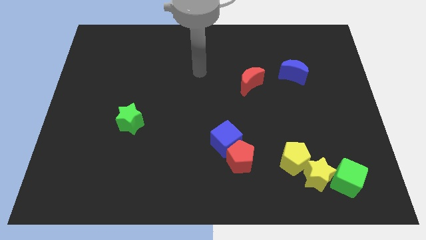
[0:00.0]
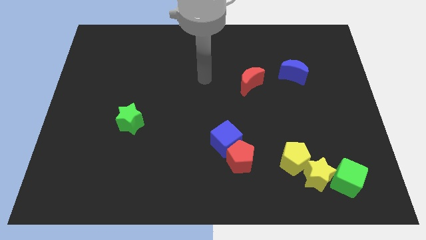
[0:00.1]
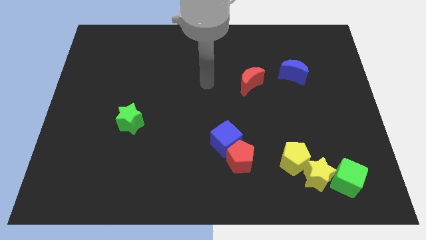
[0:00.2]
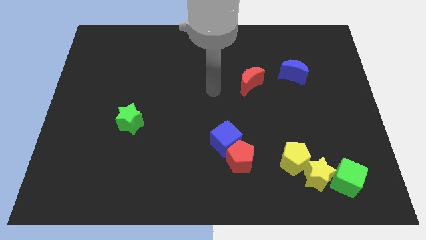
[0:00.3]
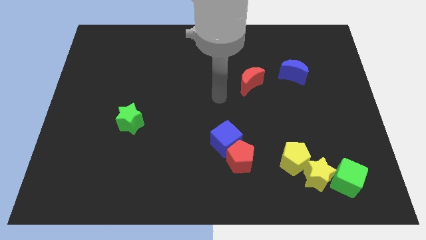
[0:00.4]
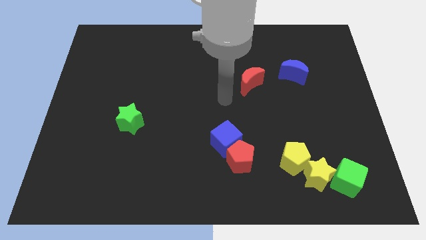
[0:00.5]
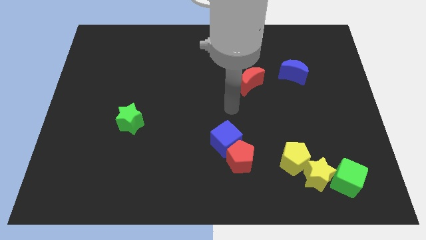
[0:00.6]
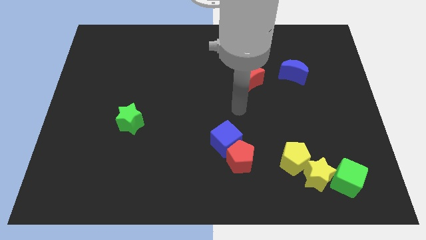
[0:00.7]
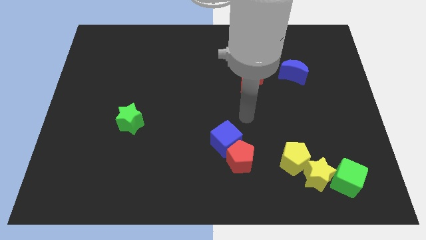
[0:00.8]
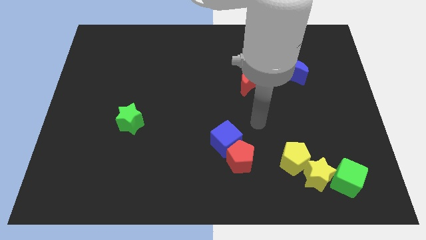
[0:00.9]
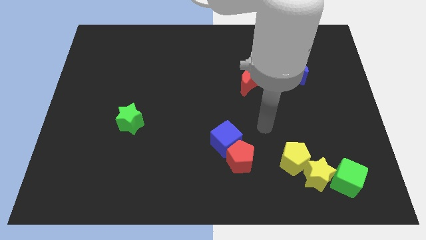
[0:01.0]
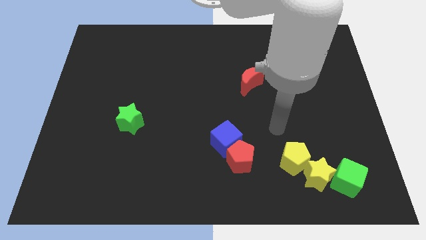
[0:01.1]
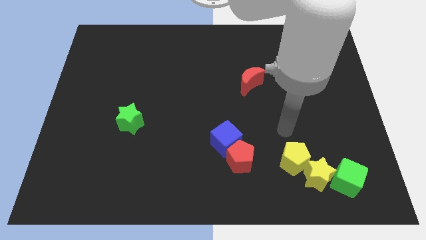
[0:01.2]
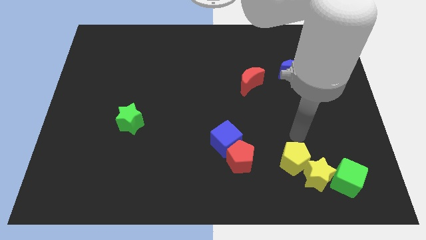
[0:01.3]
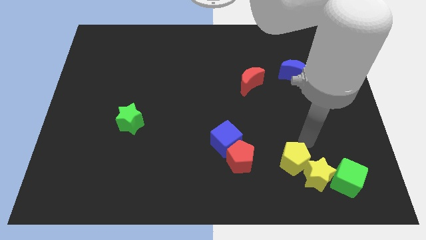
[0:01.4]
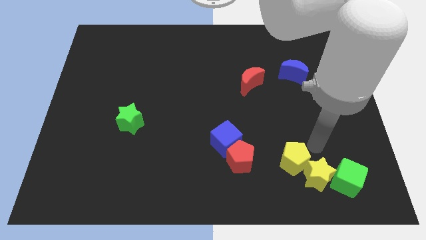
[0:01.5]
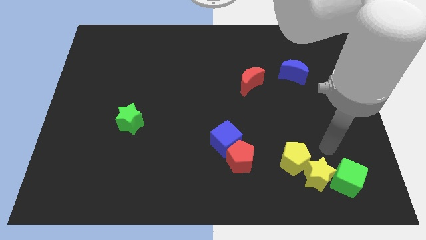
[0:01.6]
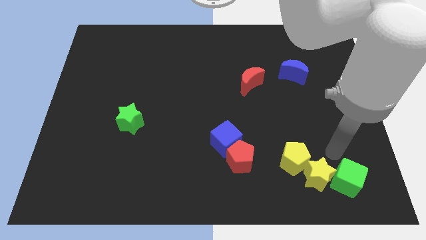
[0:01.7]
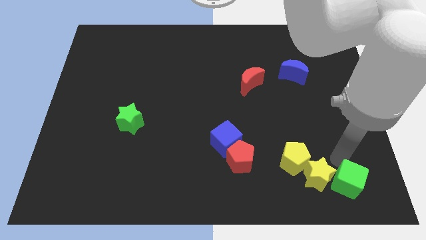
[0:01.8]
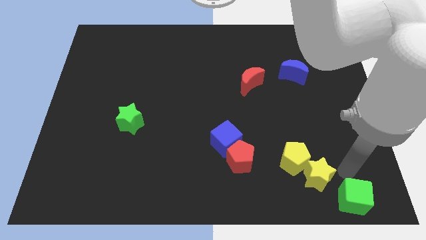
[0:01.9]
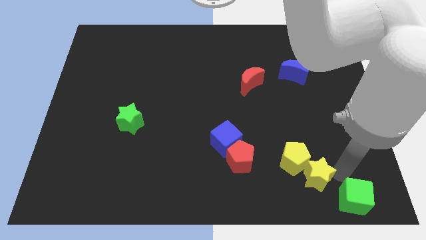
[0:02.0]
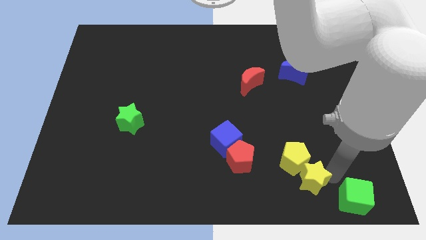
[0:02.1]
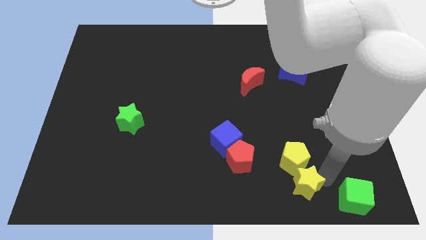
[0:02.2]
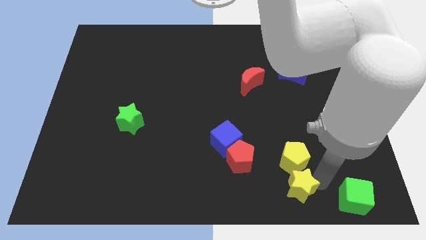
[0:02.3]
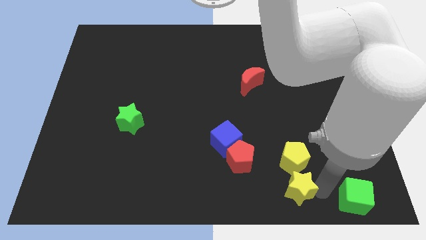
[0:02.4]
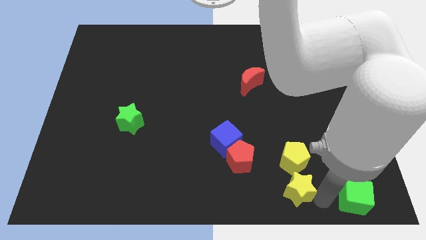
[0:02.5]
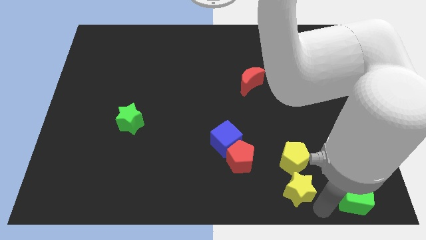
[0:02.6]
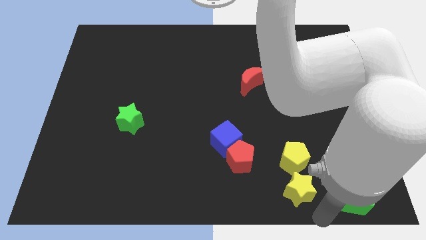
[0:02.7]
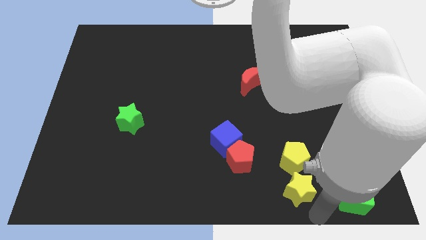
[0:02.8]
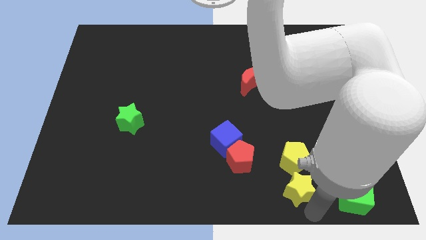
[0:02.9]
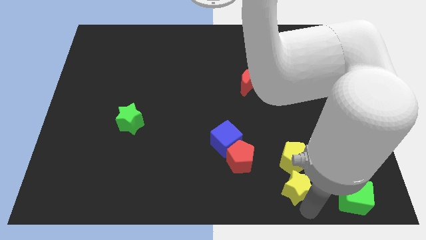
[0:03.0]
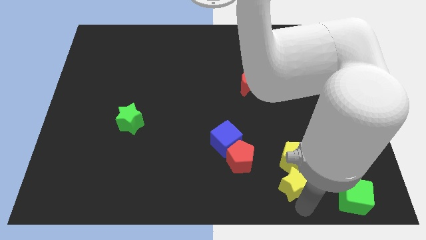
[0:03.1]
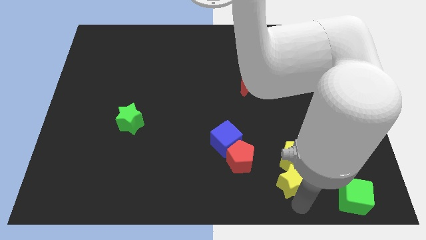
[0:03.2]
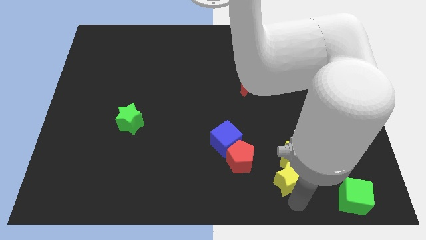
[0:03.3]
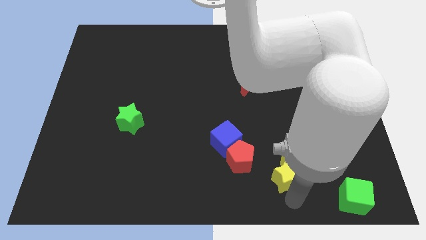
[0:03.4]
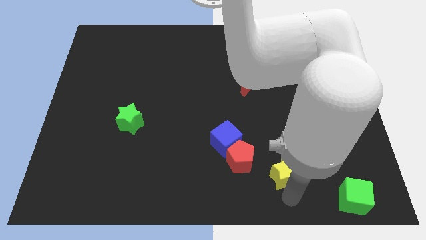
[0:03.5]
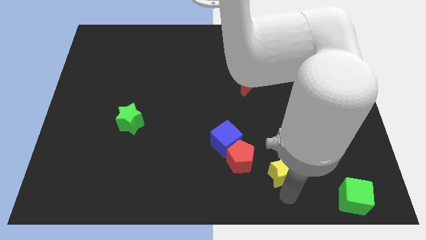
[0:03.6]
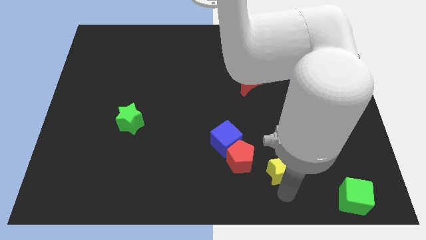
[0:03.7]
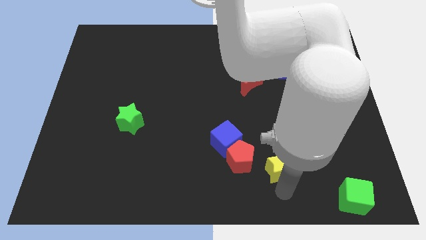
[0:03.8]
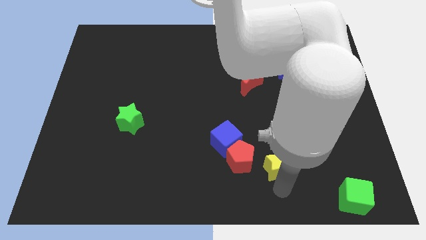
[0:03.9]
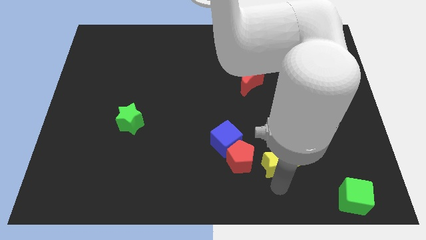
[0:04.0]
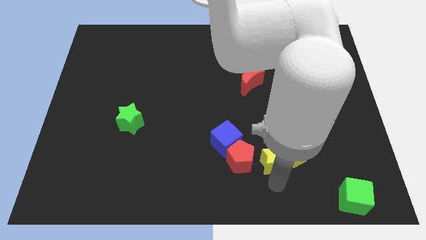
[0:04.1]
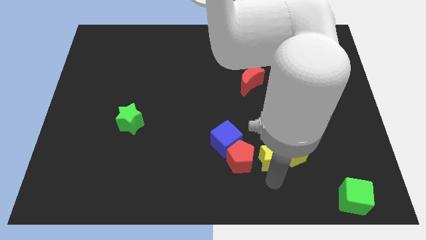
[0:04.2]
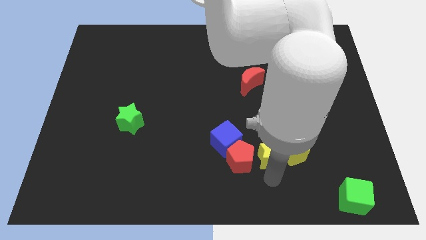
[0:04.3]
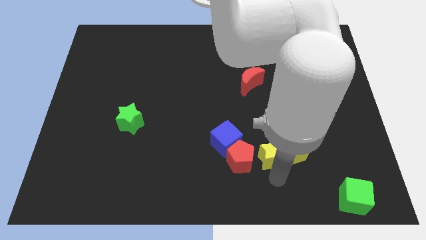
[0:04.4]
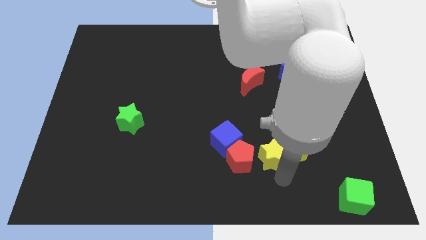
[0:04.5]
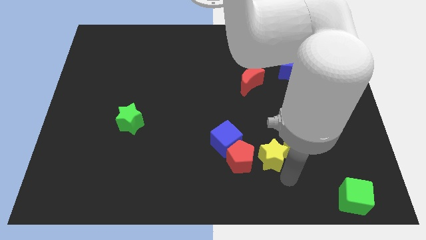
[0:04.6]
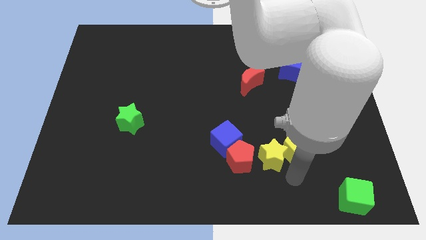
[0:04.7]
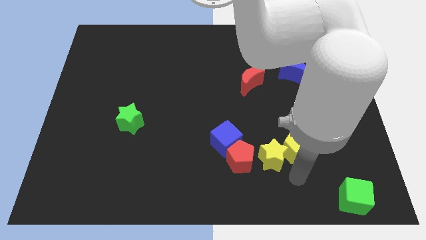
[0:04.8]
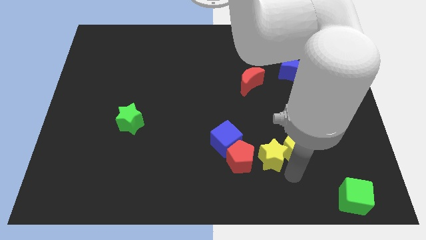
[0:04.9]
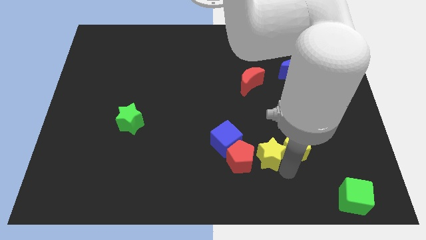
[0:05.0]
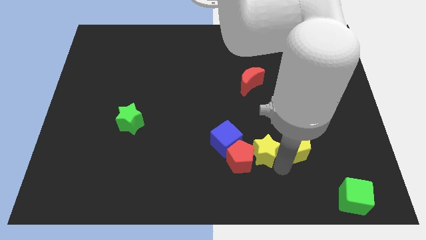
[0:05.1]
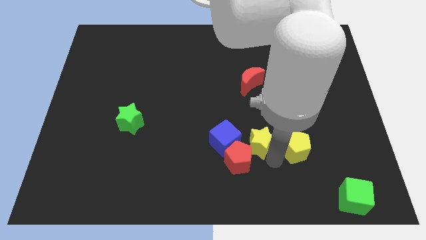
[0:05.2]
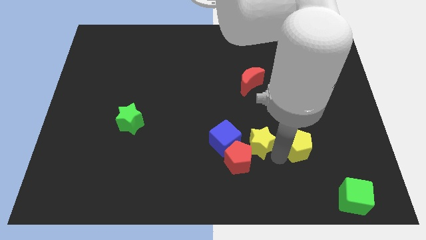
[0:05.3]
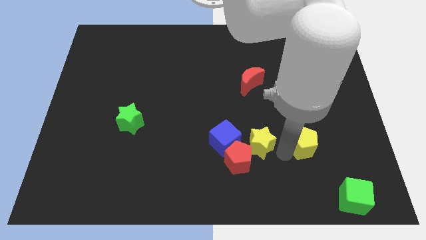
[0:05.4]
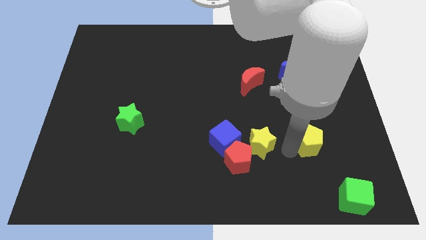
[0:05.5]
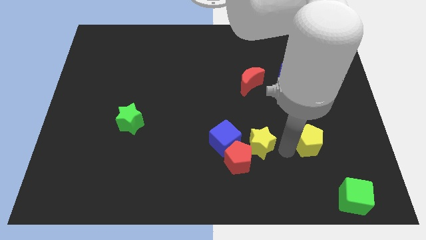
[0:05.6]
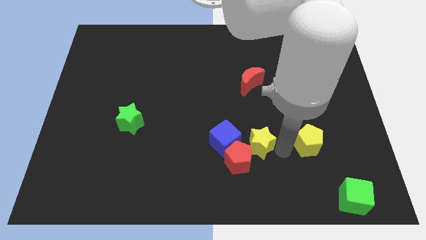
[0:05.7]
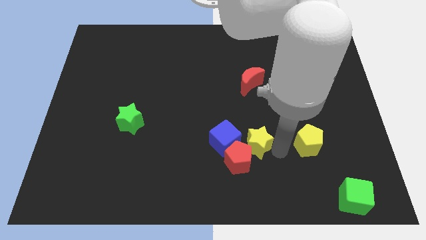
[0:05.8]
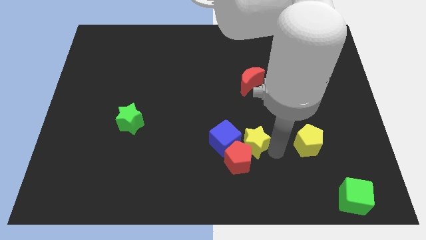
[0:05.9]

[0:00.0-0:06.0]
slide the yellow star towards the blue cube

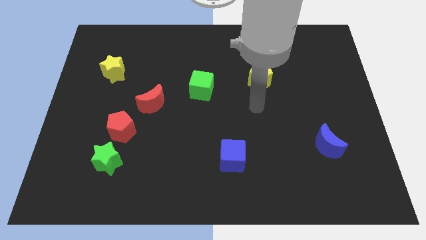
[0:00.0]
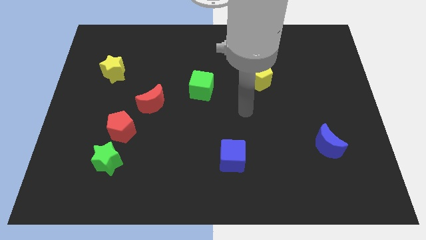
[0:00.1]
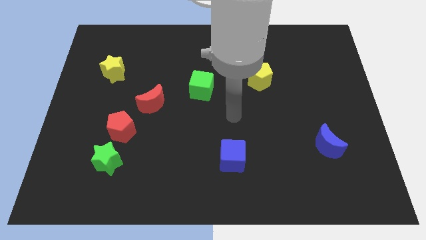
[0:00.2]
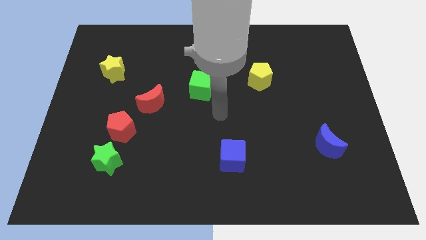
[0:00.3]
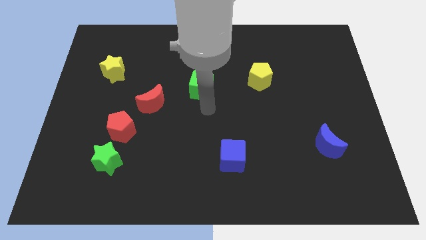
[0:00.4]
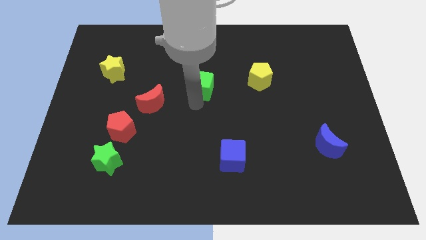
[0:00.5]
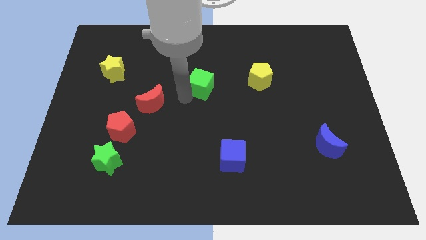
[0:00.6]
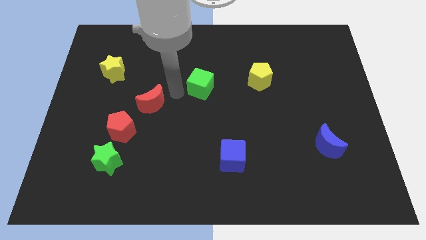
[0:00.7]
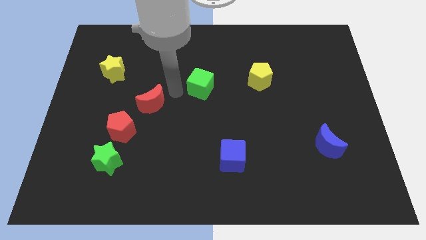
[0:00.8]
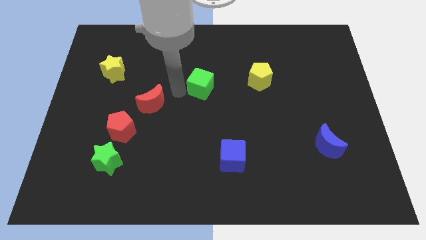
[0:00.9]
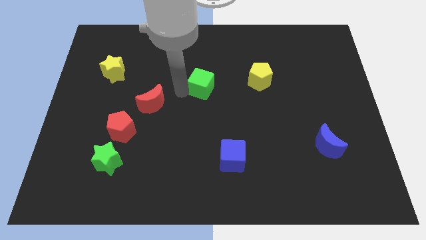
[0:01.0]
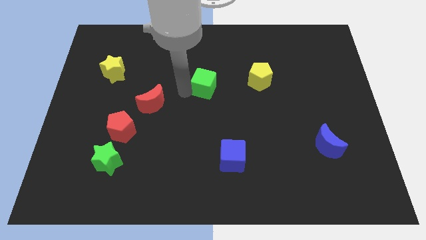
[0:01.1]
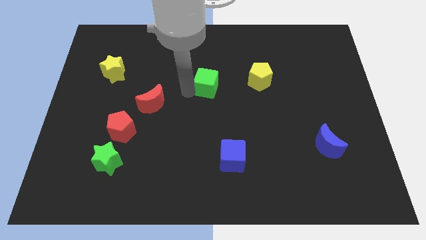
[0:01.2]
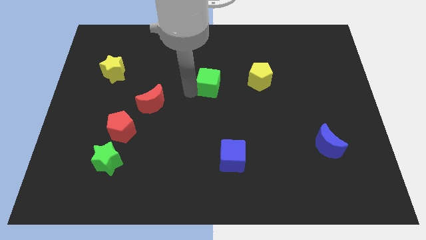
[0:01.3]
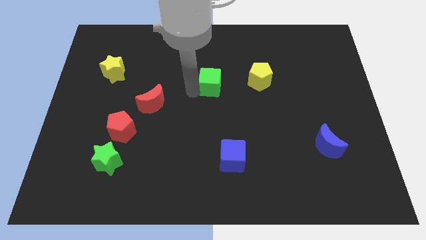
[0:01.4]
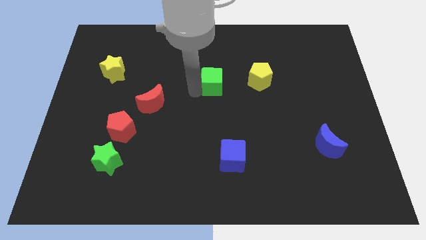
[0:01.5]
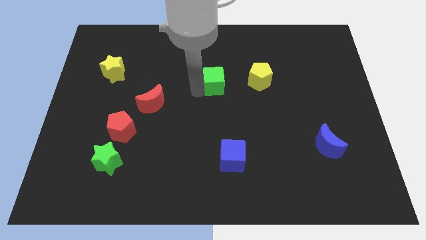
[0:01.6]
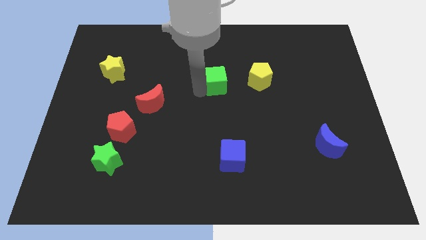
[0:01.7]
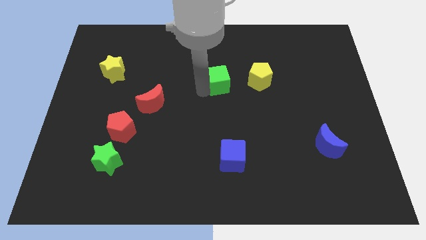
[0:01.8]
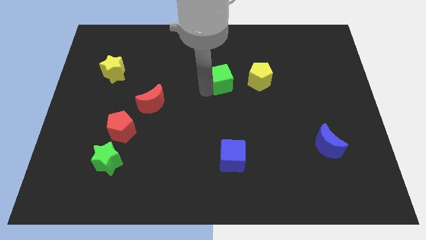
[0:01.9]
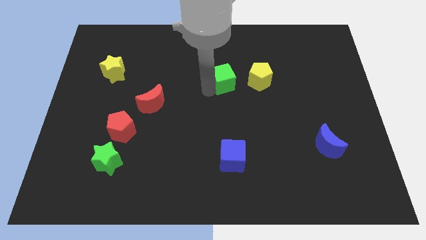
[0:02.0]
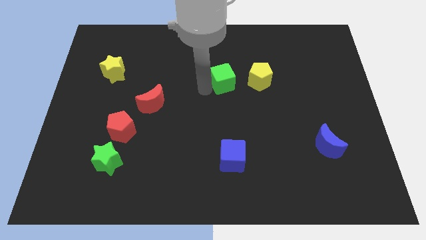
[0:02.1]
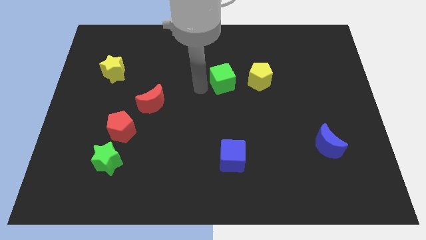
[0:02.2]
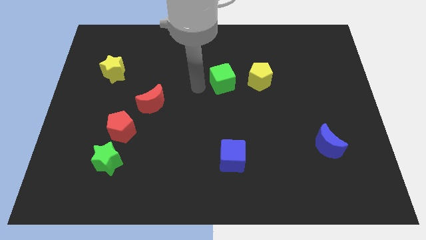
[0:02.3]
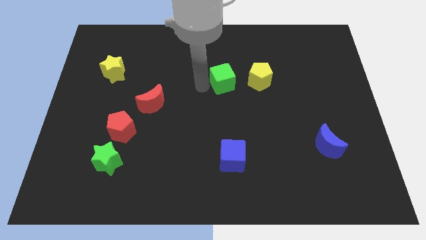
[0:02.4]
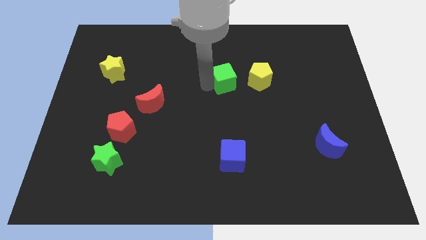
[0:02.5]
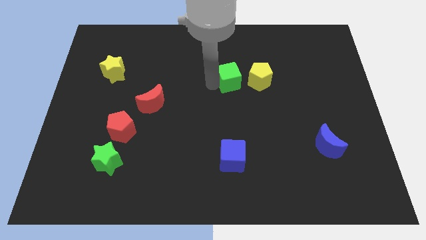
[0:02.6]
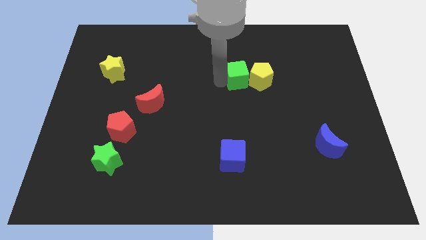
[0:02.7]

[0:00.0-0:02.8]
slide the green cube to the yellow pentagon
